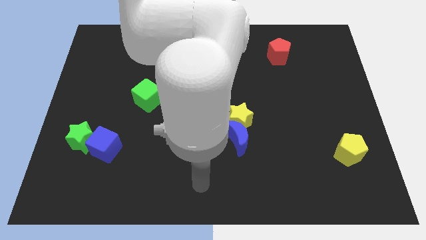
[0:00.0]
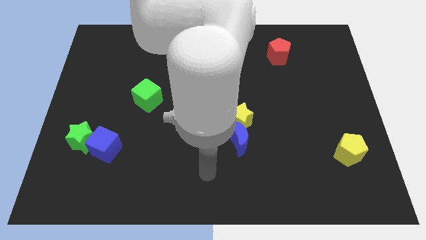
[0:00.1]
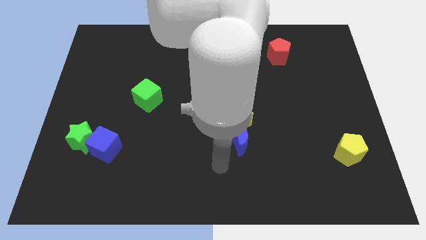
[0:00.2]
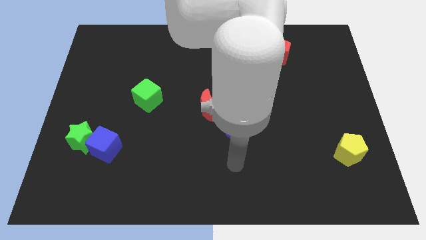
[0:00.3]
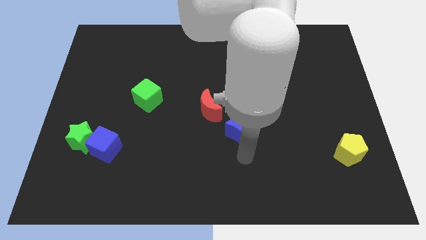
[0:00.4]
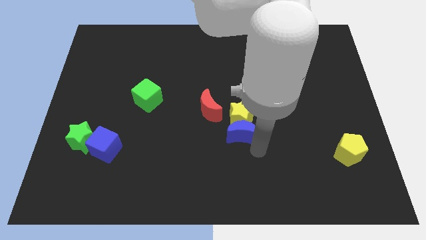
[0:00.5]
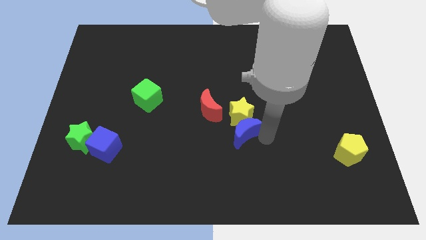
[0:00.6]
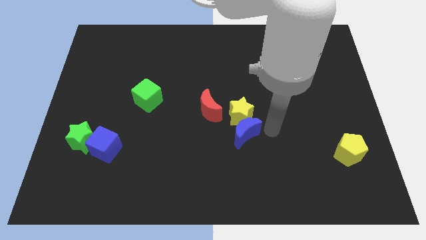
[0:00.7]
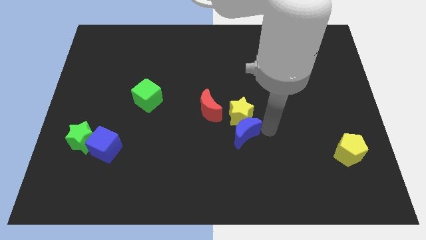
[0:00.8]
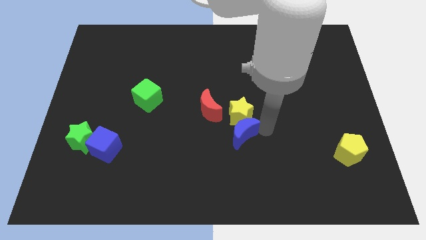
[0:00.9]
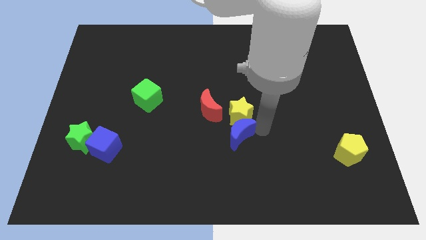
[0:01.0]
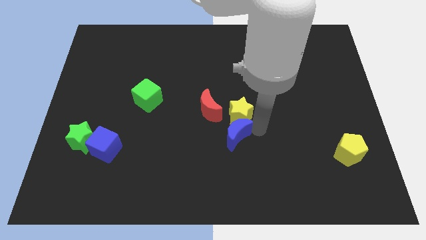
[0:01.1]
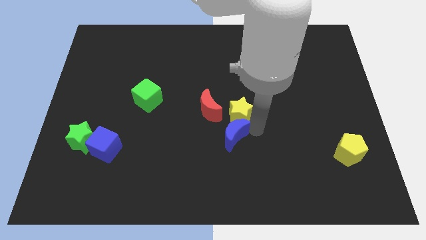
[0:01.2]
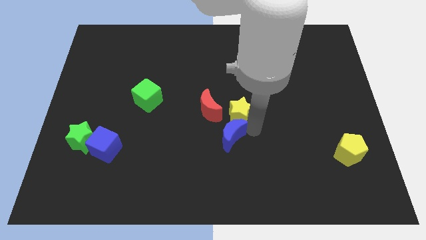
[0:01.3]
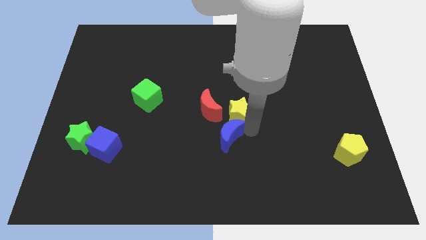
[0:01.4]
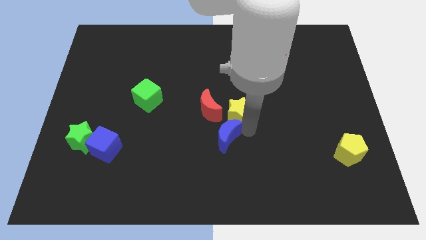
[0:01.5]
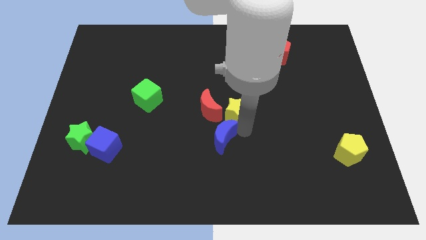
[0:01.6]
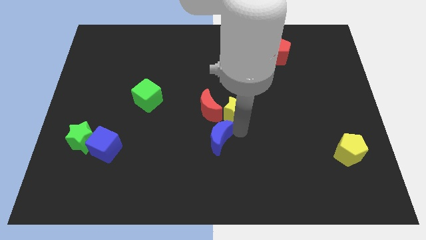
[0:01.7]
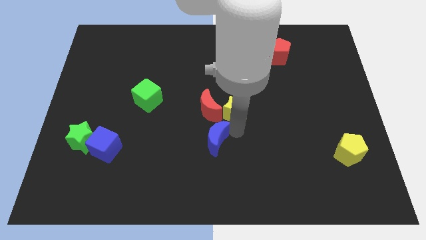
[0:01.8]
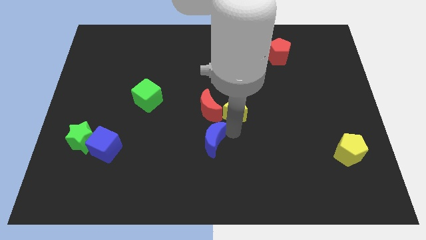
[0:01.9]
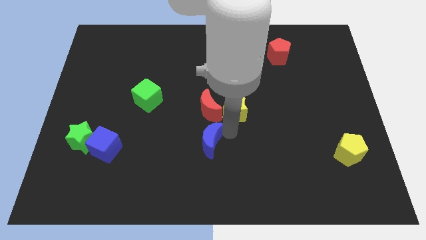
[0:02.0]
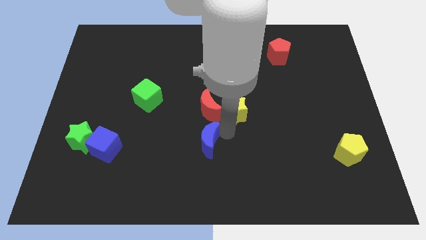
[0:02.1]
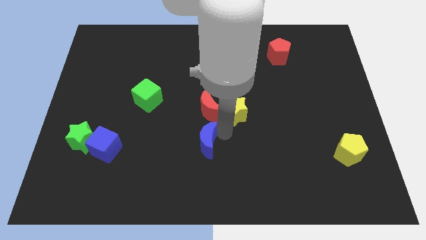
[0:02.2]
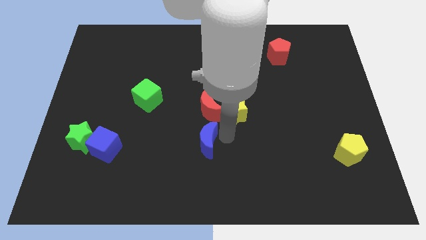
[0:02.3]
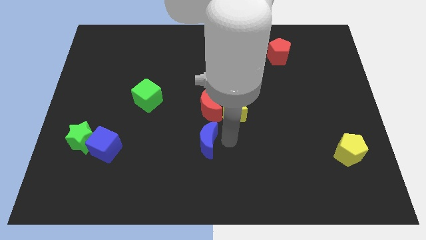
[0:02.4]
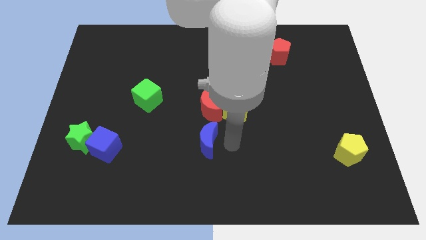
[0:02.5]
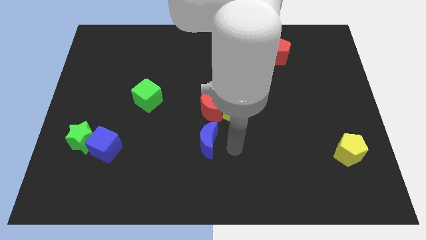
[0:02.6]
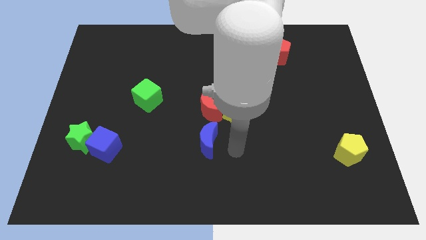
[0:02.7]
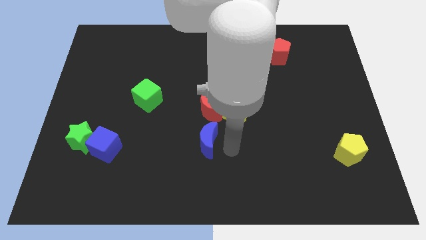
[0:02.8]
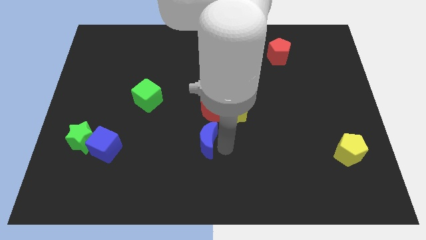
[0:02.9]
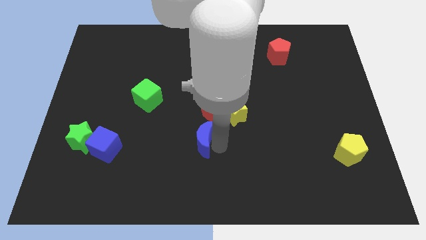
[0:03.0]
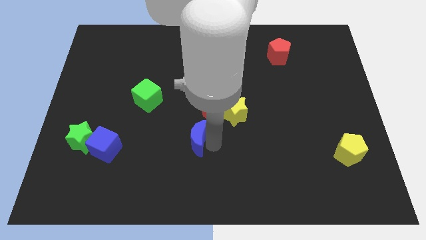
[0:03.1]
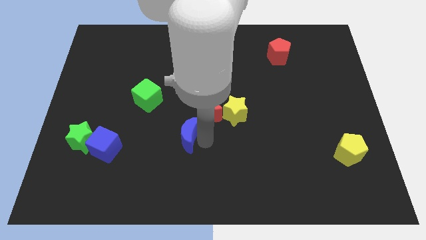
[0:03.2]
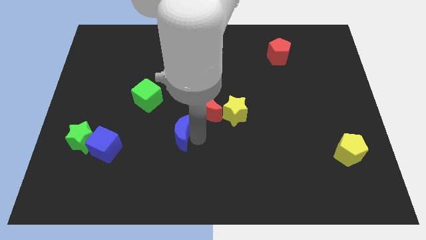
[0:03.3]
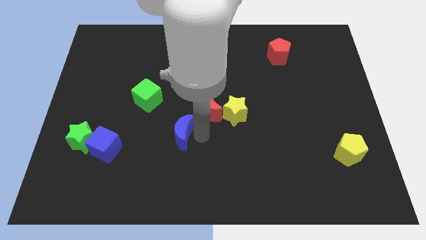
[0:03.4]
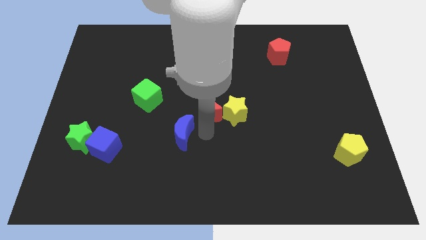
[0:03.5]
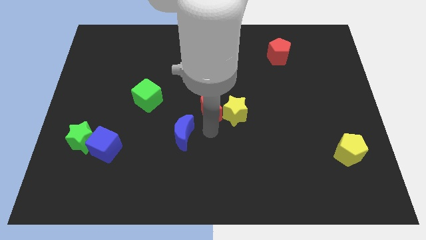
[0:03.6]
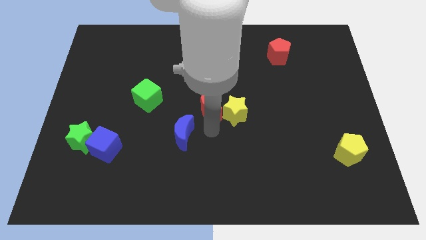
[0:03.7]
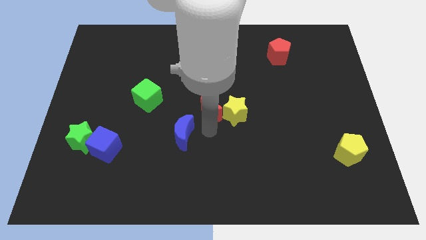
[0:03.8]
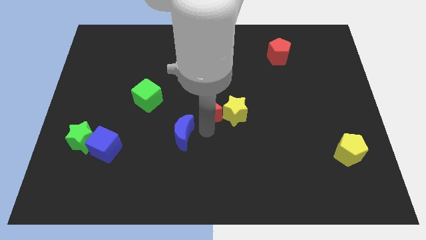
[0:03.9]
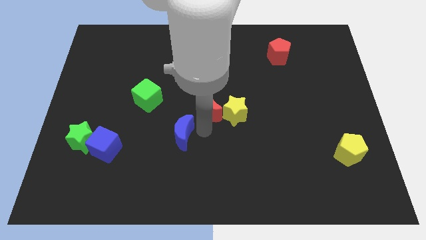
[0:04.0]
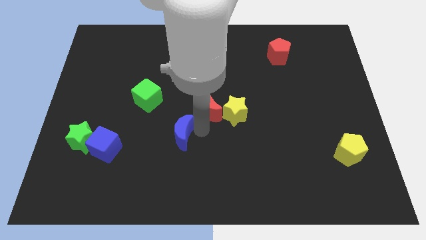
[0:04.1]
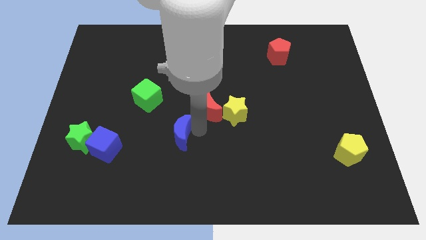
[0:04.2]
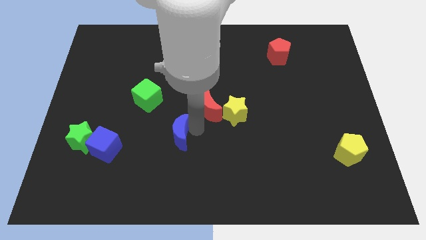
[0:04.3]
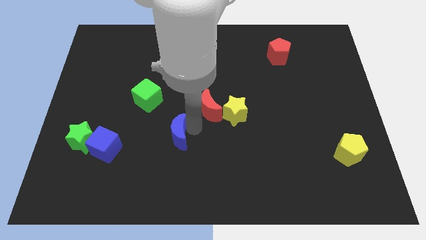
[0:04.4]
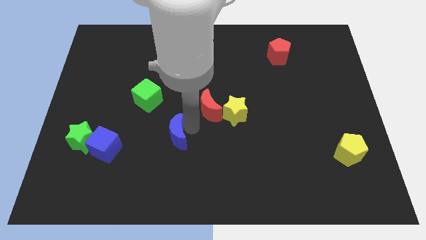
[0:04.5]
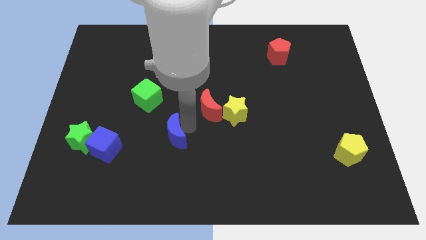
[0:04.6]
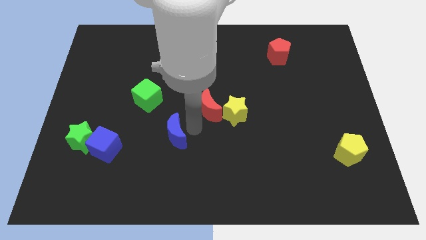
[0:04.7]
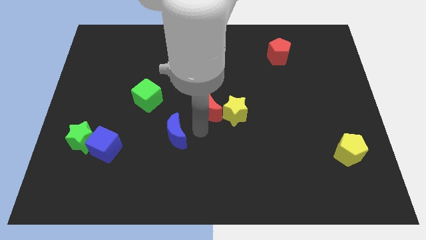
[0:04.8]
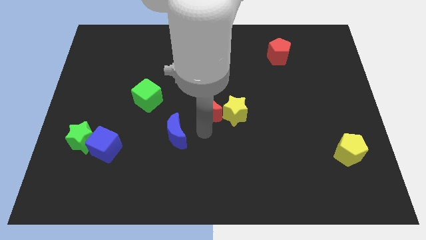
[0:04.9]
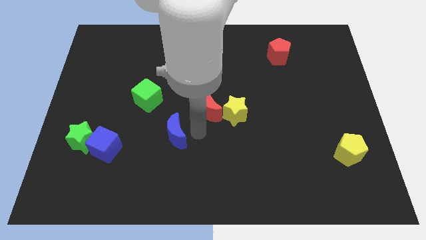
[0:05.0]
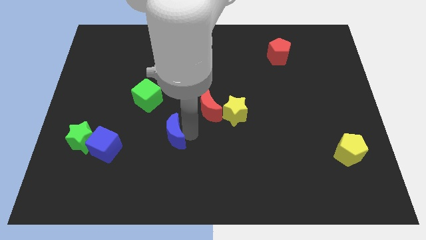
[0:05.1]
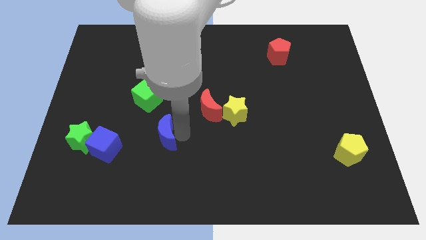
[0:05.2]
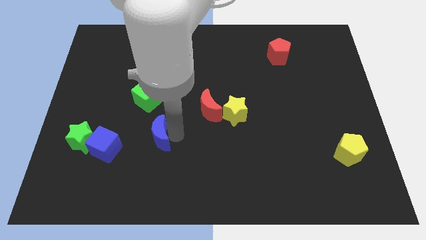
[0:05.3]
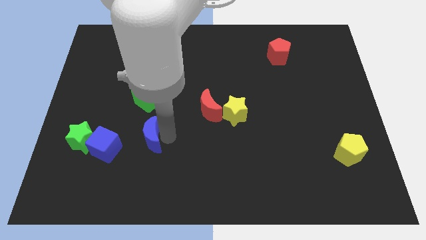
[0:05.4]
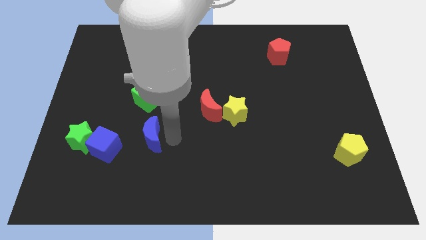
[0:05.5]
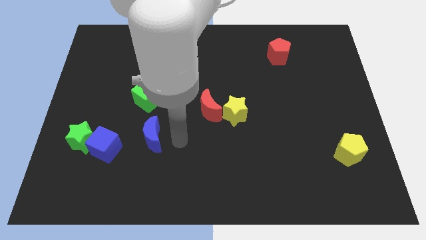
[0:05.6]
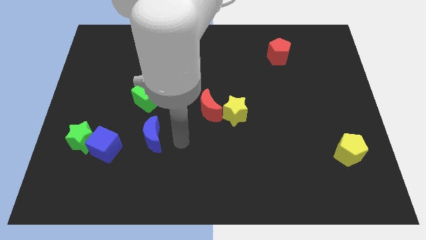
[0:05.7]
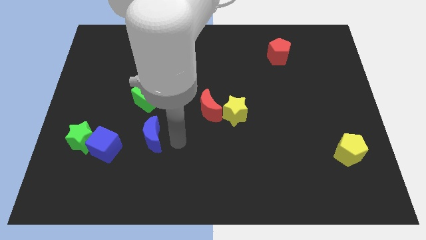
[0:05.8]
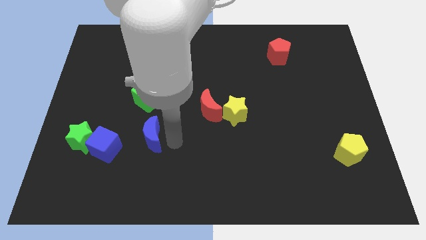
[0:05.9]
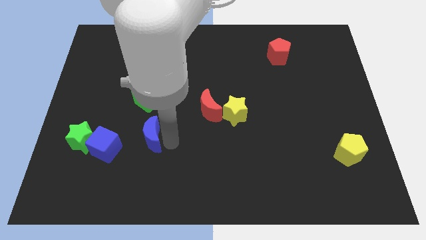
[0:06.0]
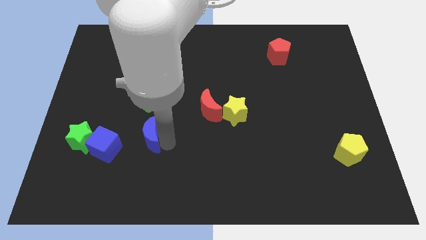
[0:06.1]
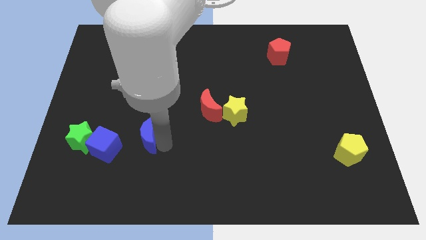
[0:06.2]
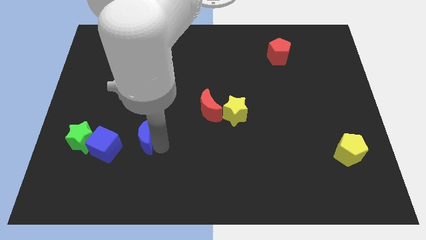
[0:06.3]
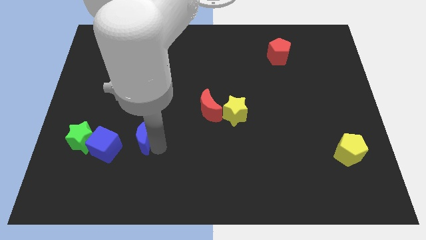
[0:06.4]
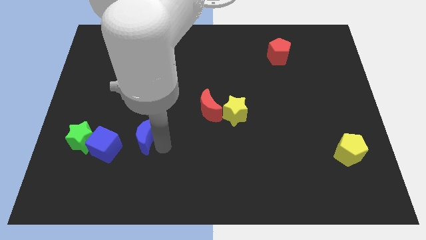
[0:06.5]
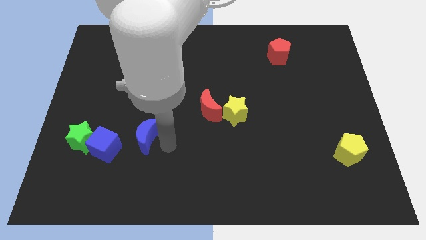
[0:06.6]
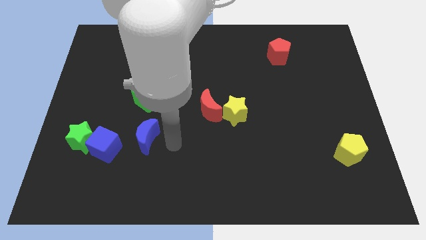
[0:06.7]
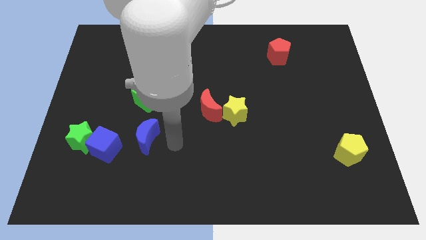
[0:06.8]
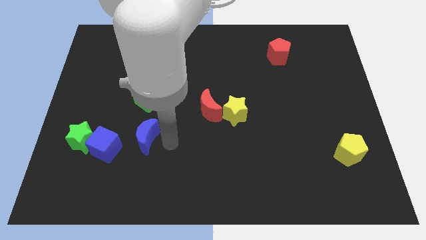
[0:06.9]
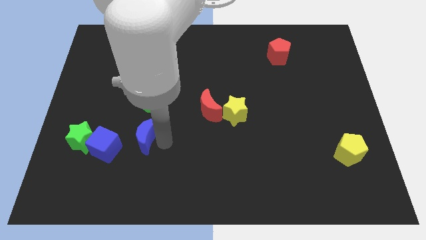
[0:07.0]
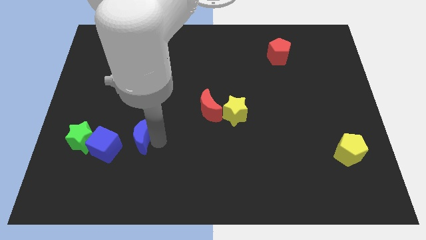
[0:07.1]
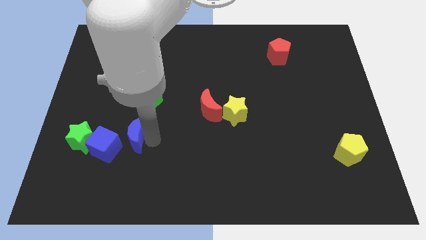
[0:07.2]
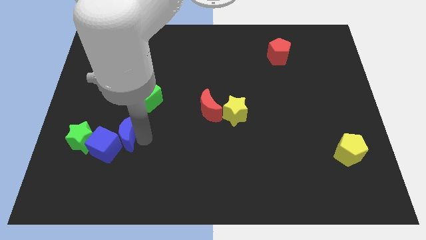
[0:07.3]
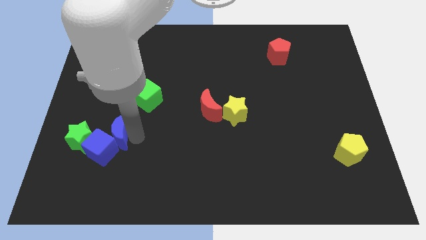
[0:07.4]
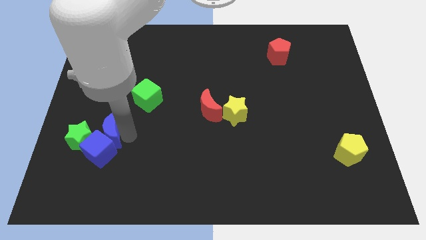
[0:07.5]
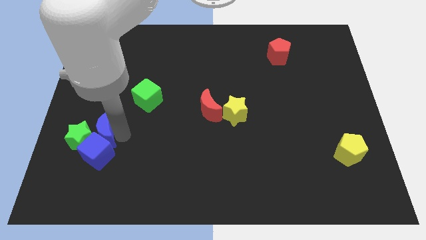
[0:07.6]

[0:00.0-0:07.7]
slide the blue moon towards the green star

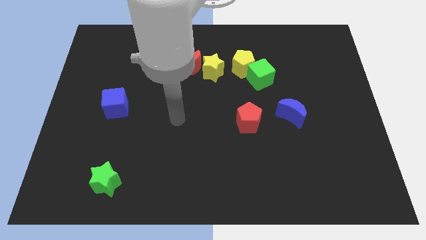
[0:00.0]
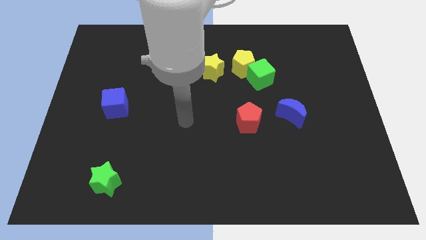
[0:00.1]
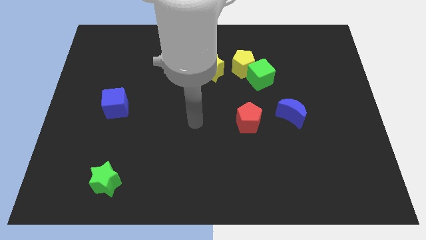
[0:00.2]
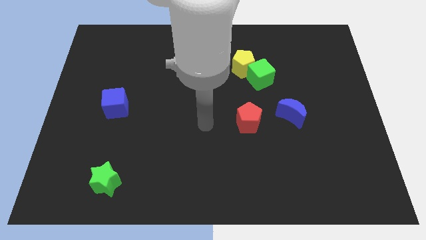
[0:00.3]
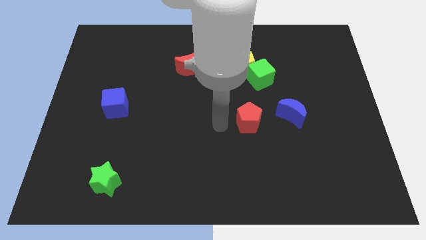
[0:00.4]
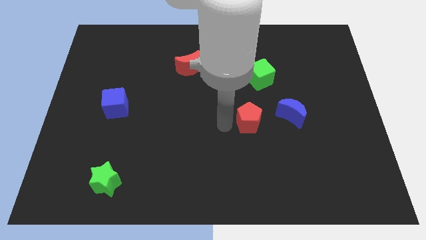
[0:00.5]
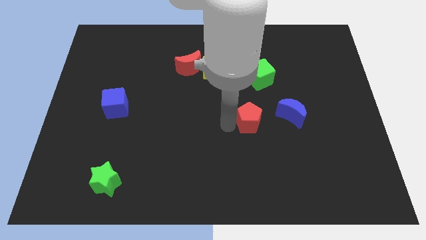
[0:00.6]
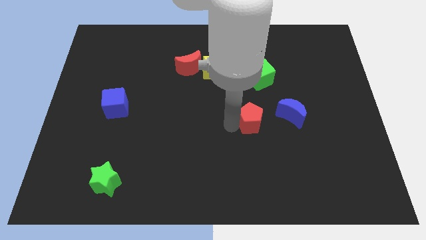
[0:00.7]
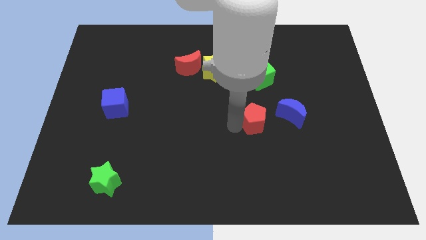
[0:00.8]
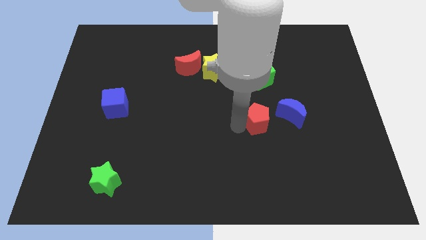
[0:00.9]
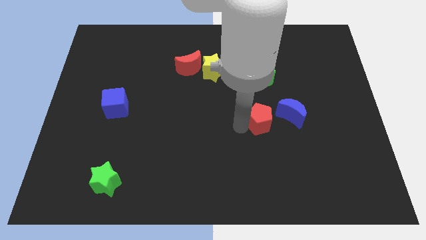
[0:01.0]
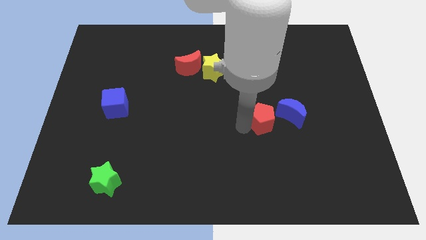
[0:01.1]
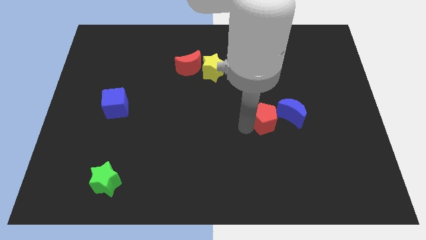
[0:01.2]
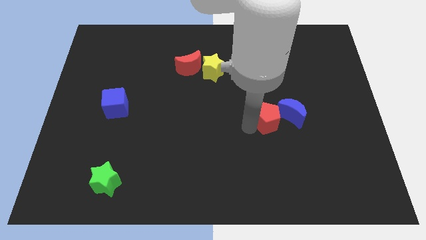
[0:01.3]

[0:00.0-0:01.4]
slide the red pentagon close to the blue moon
